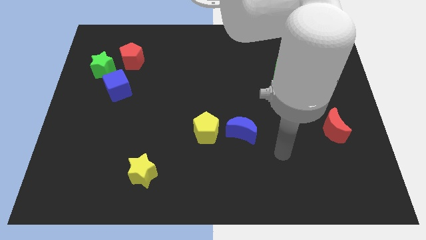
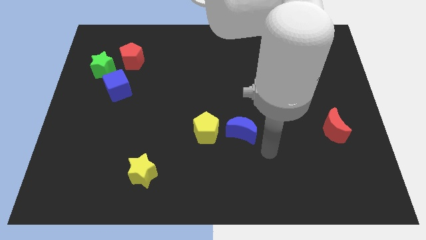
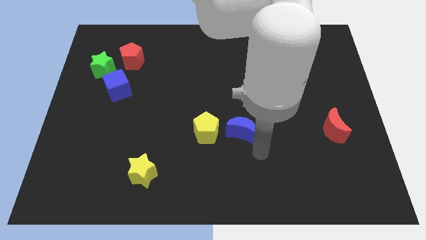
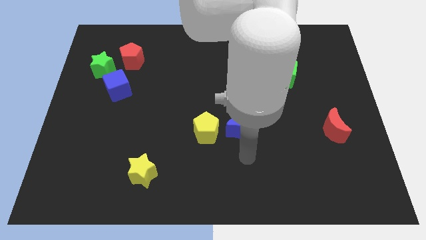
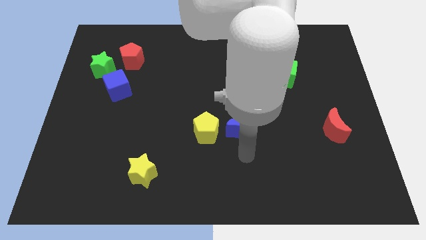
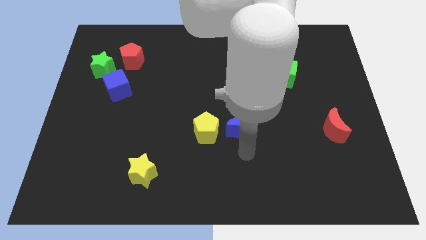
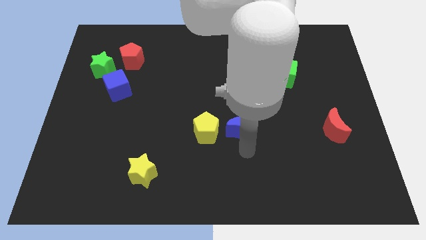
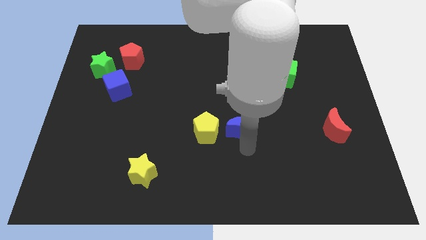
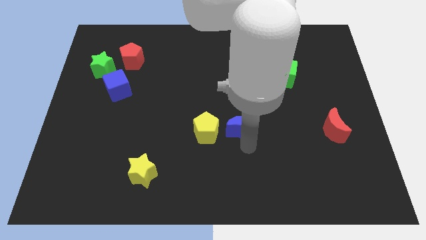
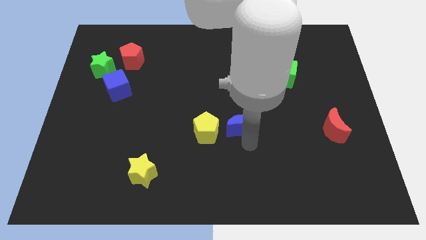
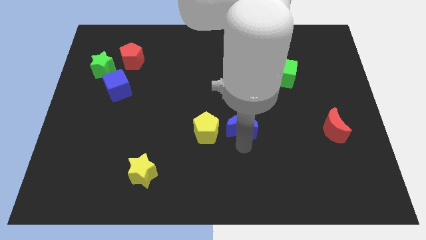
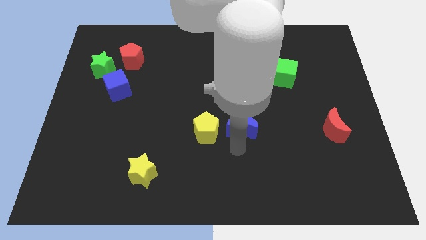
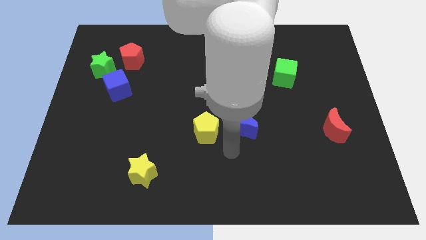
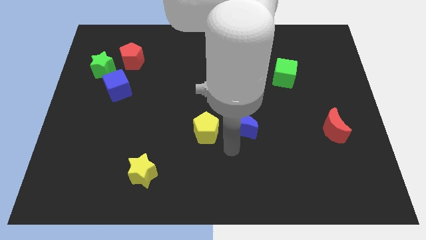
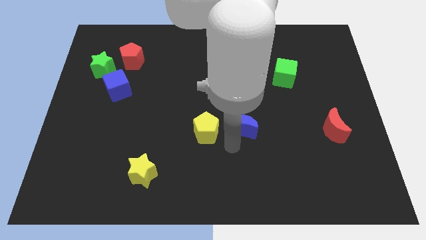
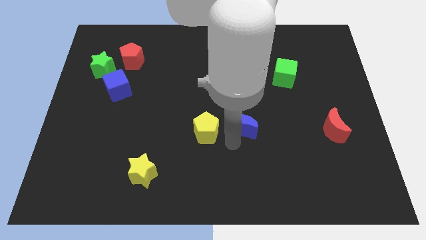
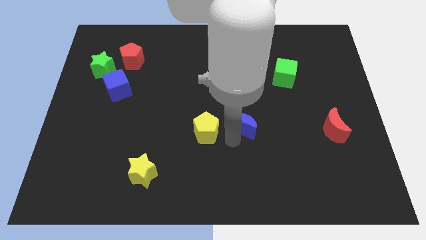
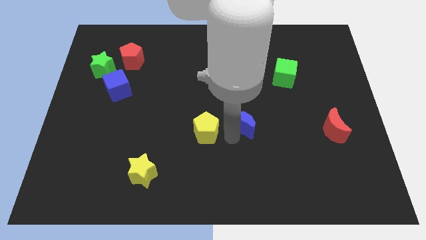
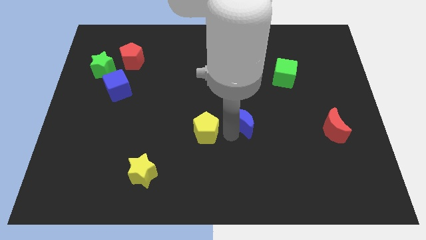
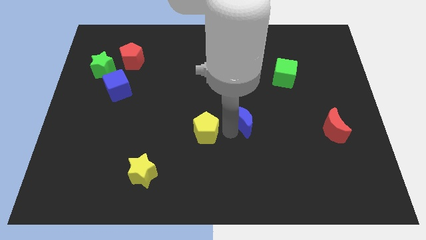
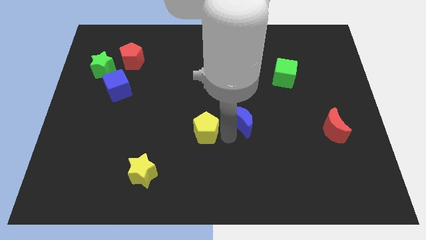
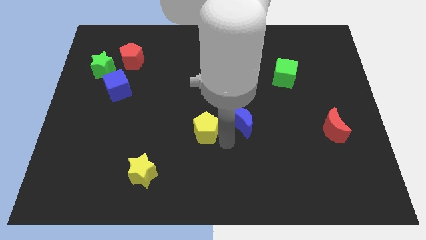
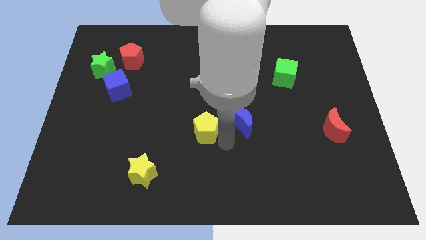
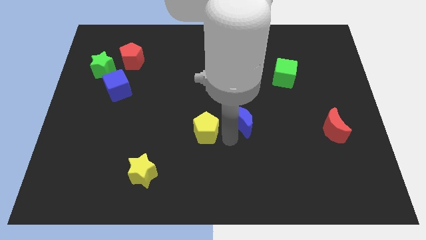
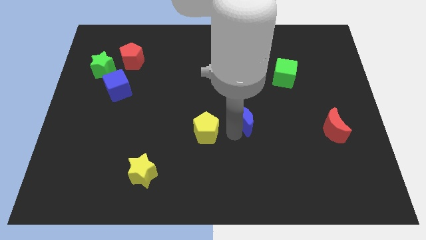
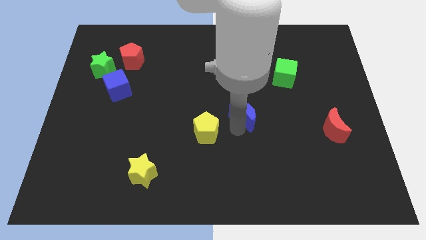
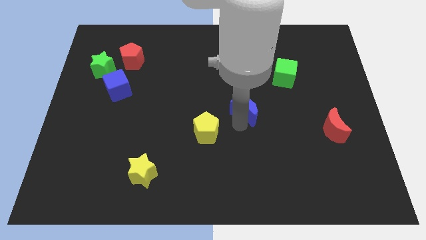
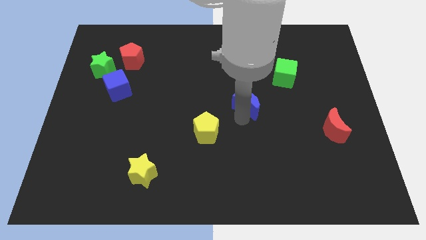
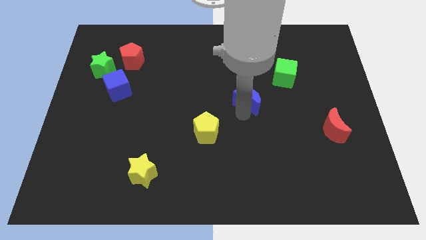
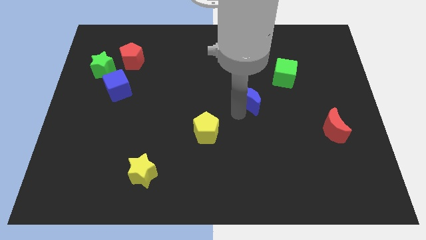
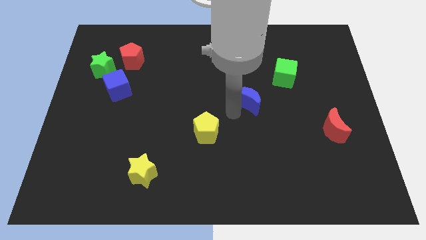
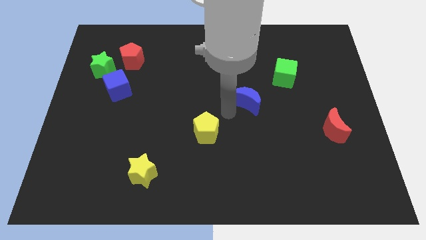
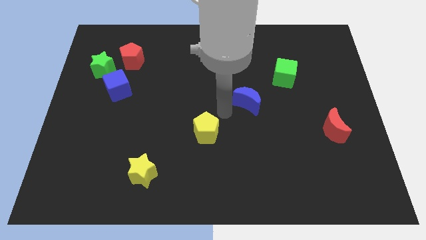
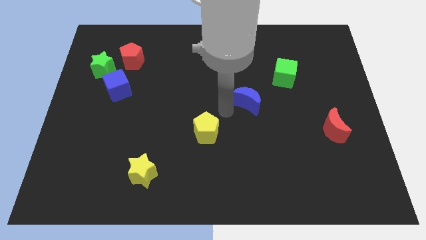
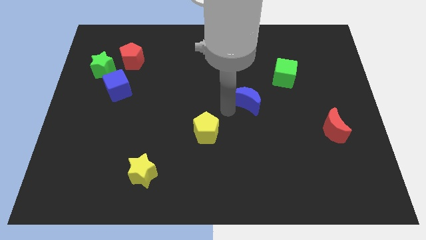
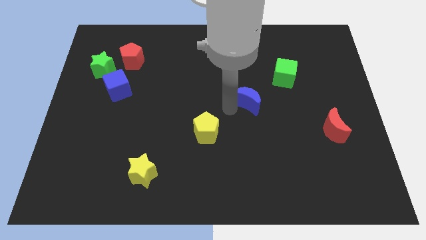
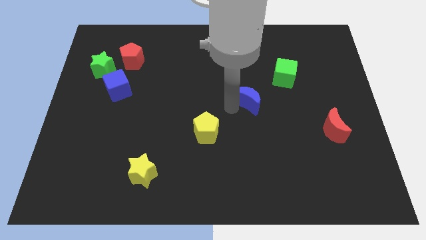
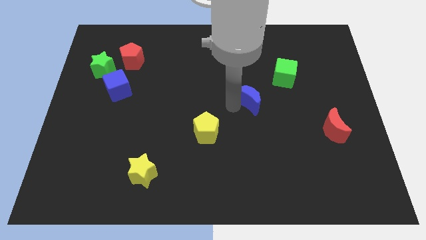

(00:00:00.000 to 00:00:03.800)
slide the blue moon upwards and right a little

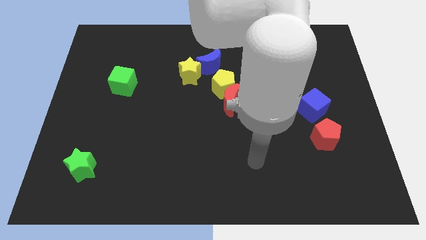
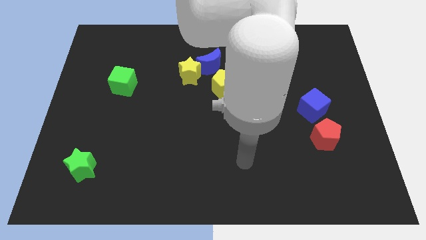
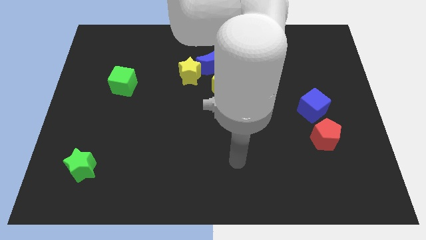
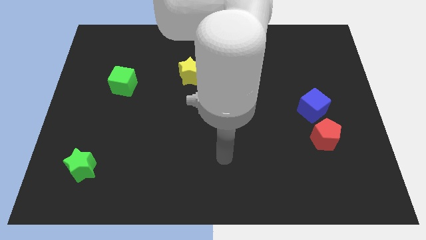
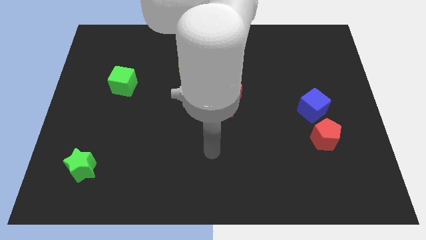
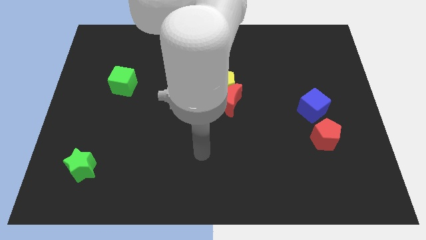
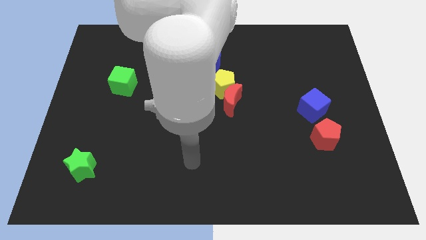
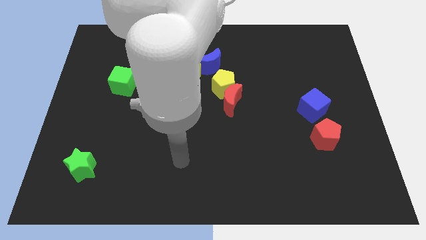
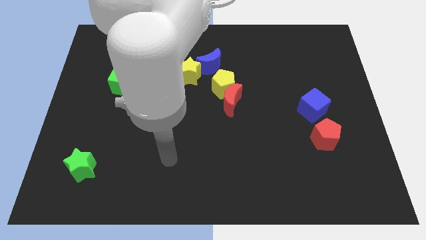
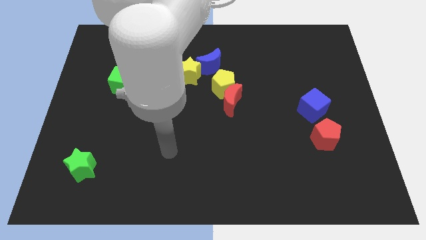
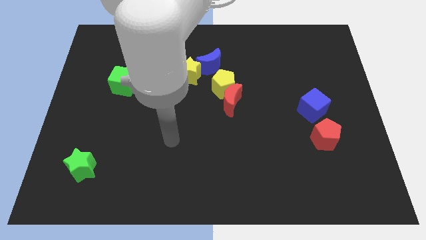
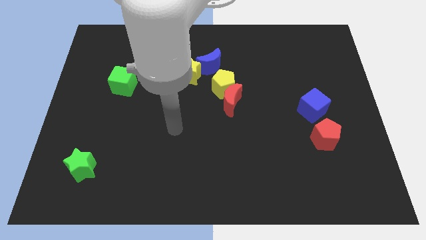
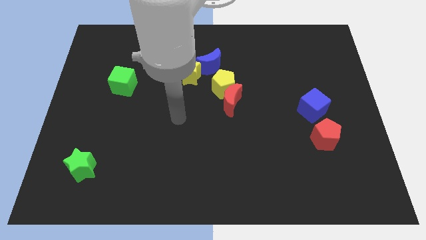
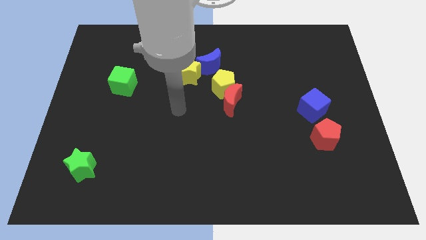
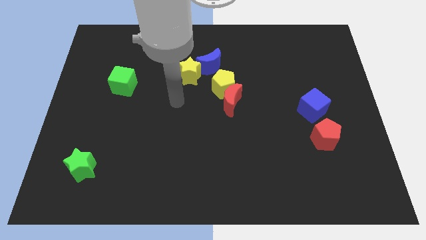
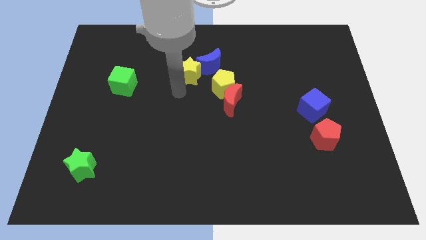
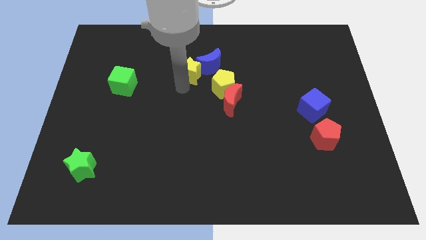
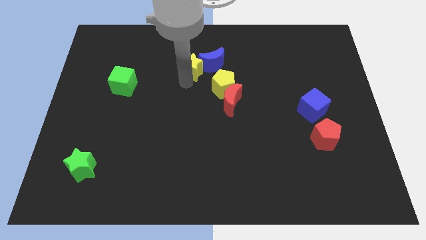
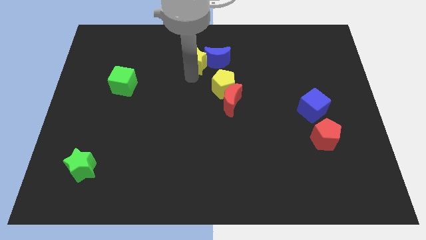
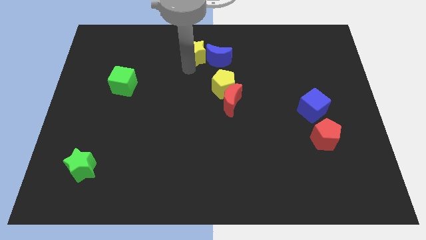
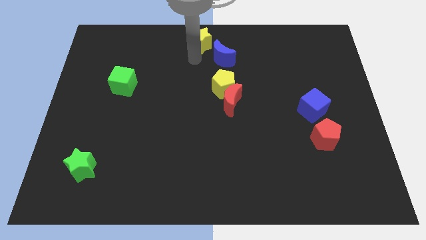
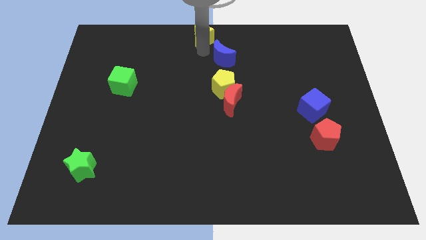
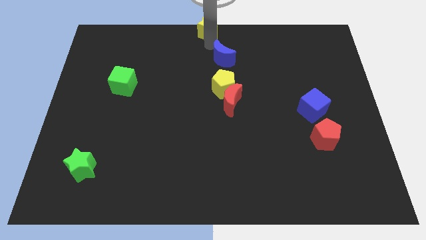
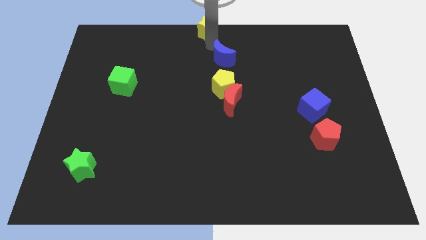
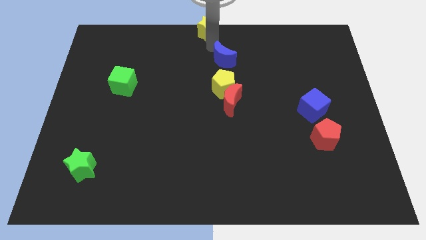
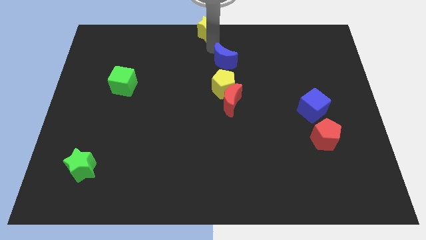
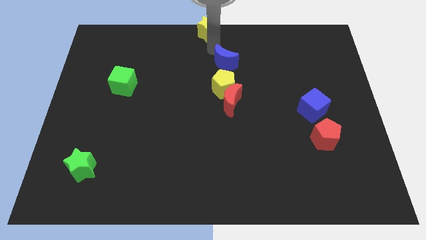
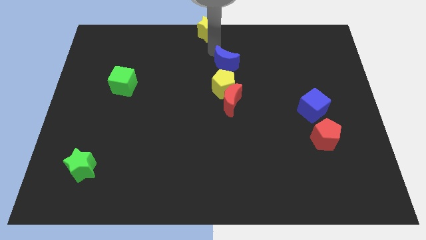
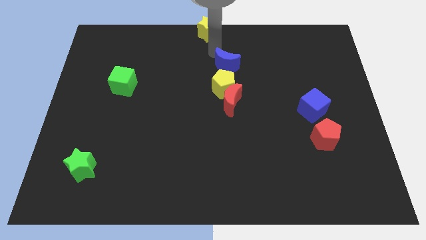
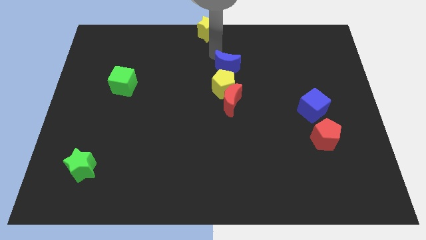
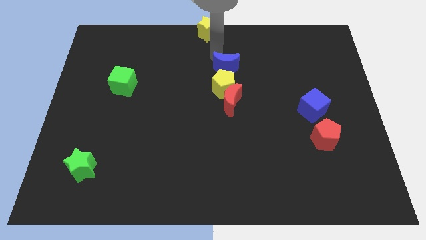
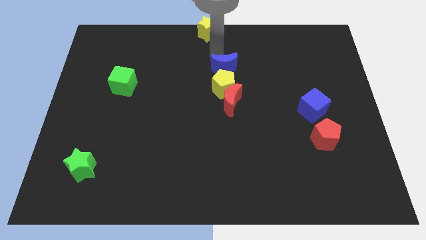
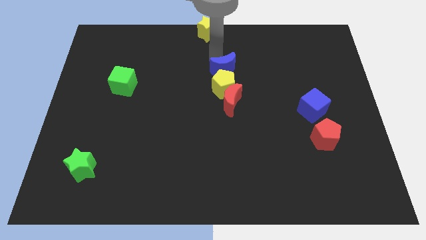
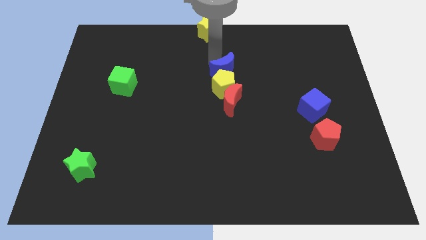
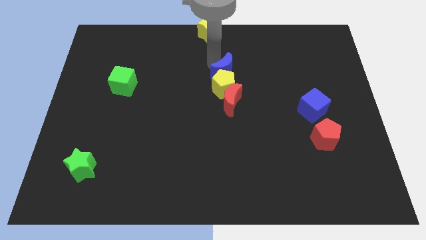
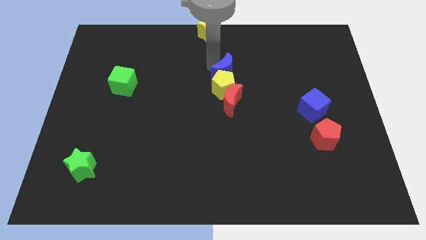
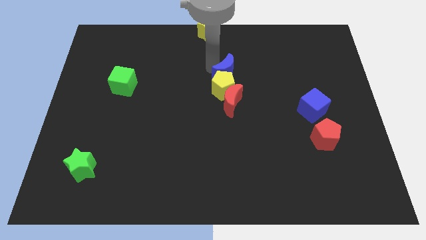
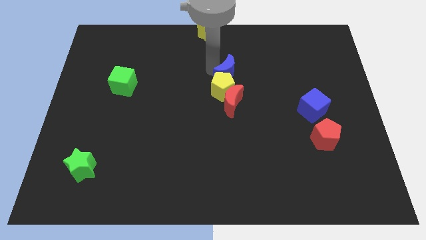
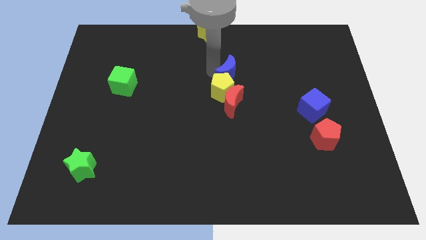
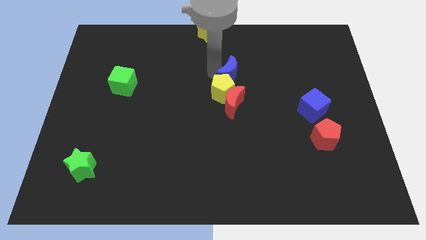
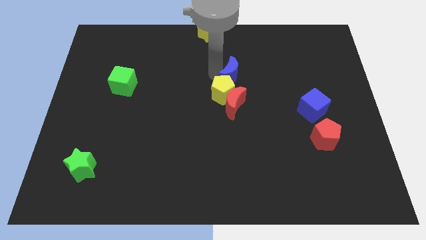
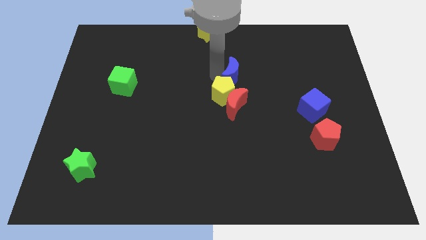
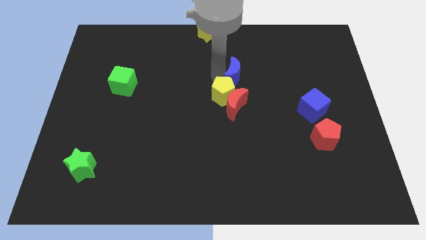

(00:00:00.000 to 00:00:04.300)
slightly push the blue moon down and right diagonally
